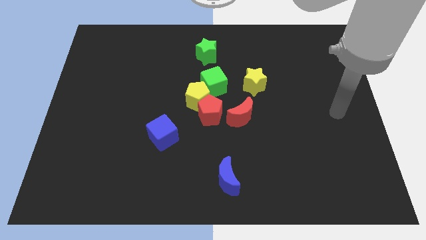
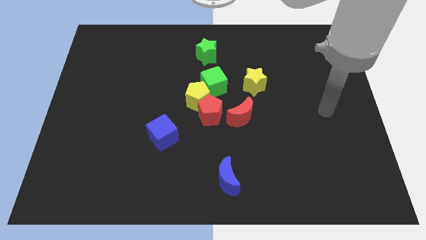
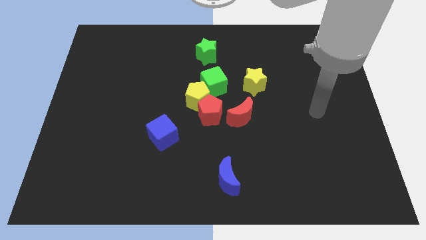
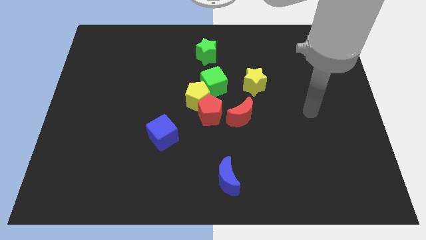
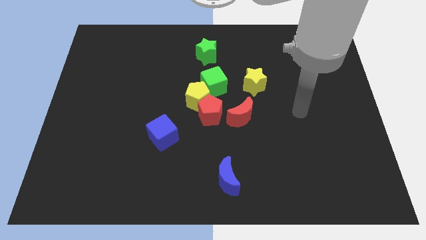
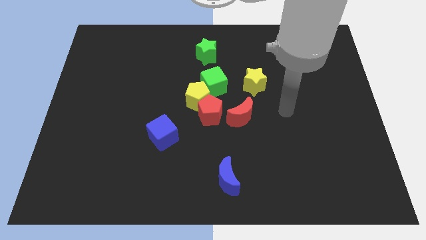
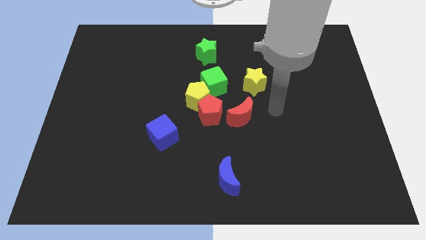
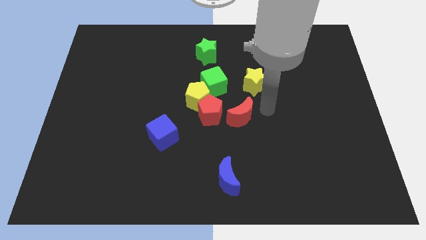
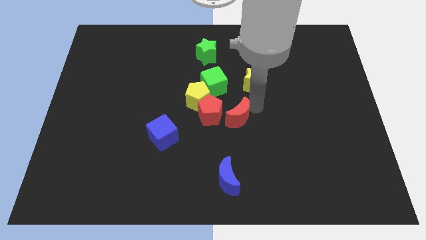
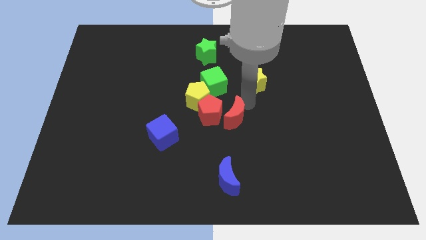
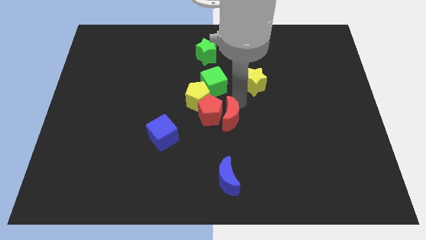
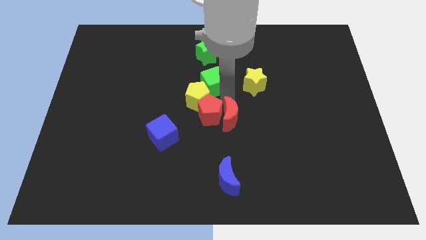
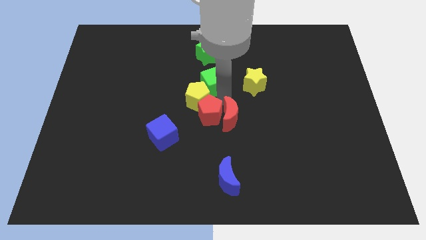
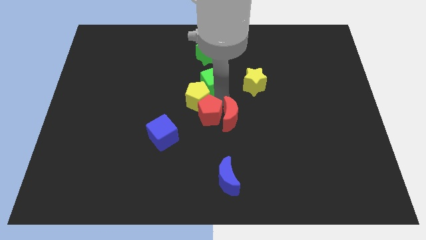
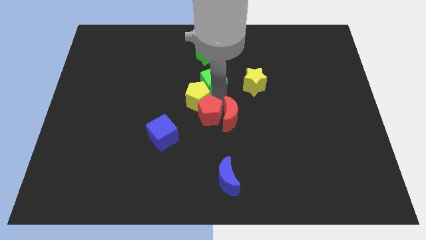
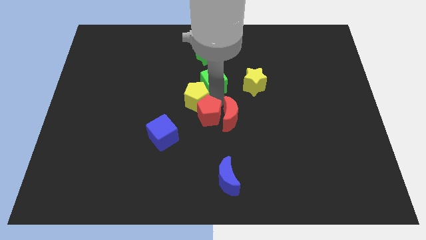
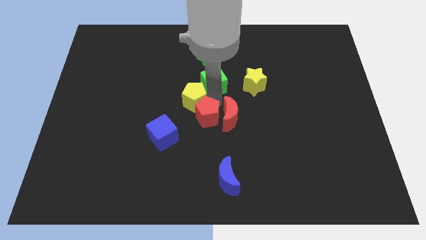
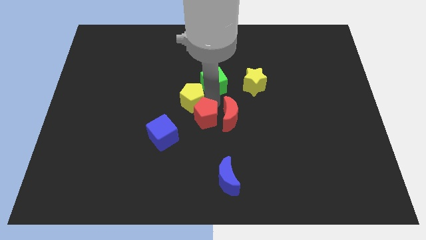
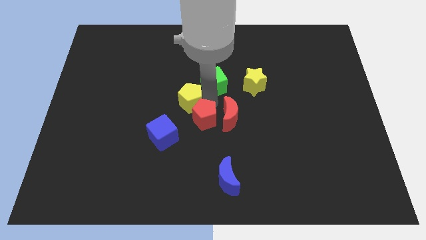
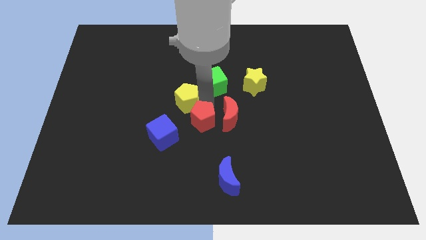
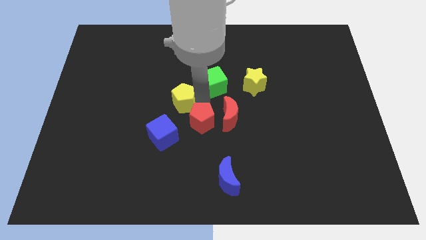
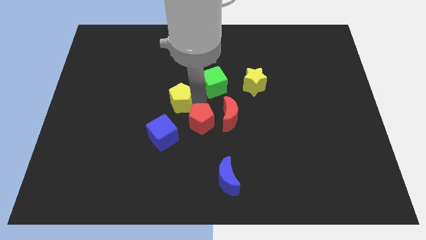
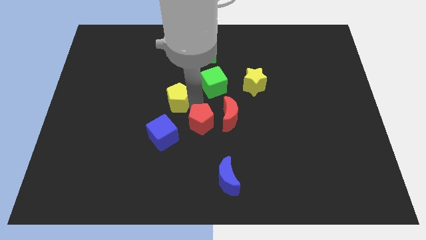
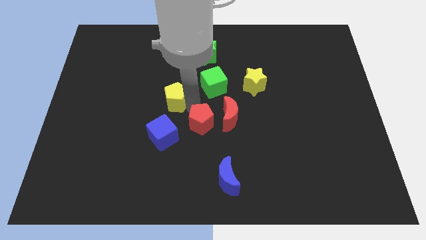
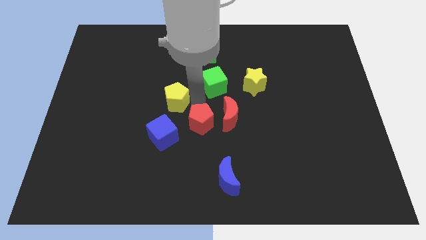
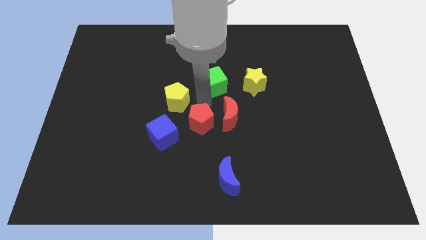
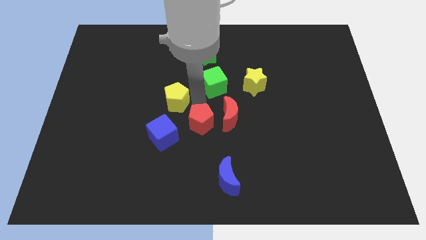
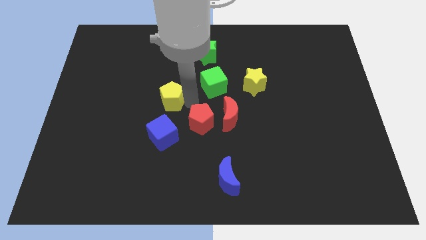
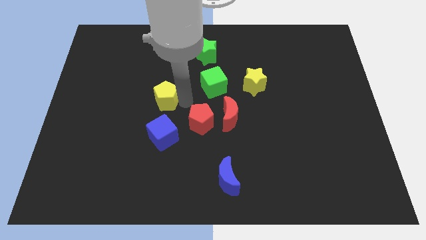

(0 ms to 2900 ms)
separate the yellow pentagon from the red pentagon and green cube

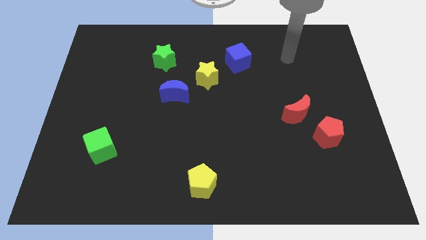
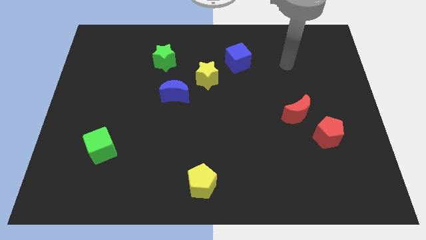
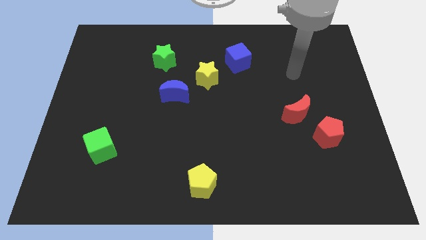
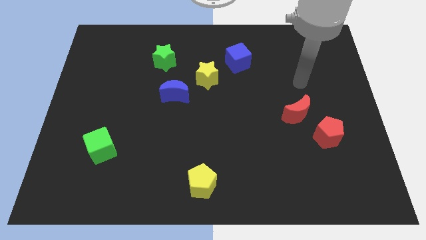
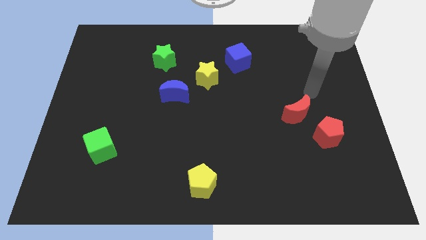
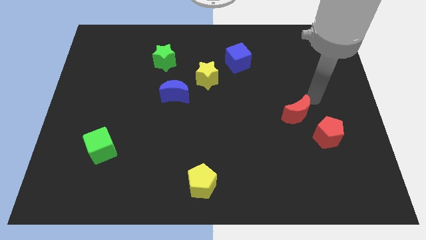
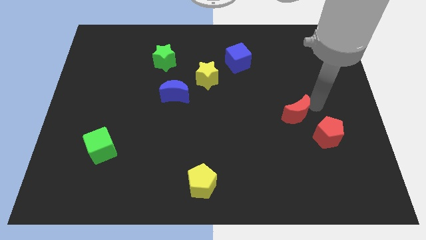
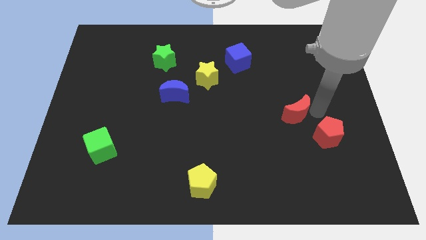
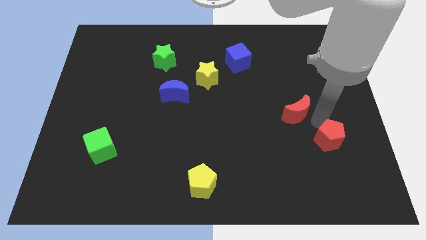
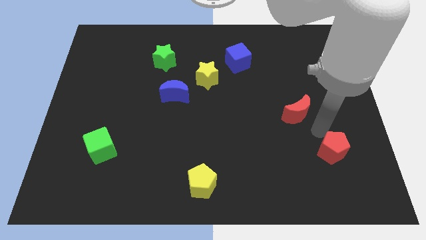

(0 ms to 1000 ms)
separate the red moon from the red pentagon

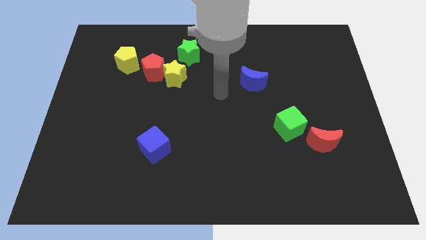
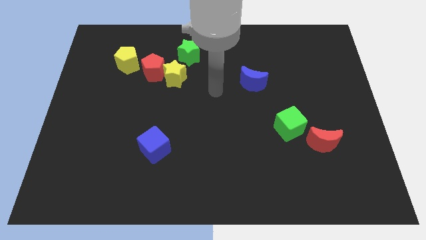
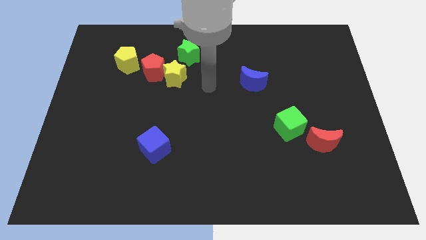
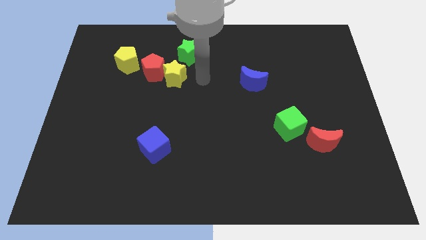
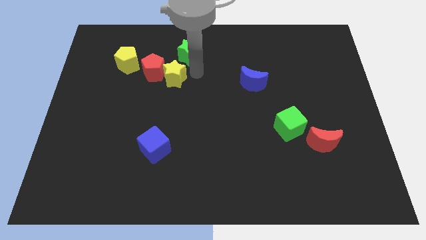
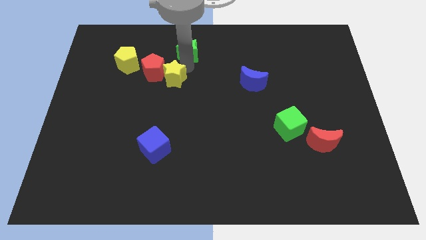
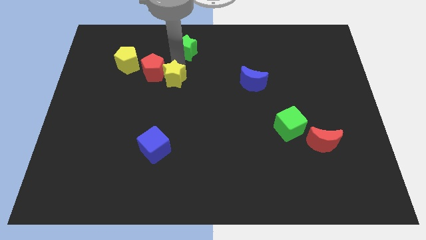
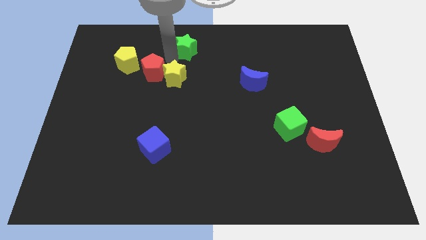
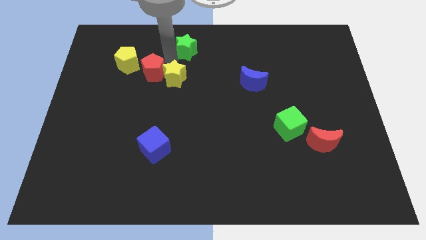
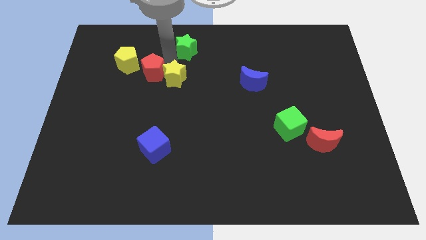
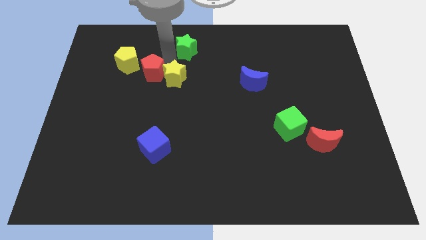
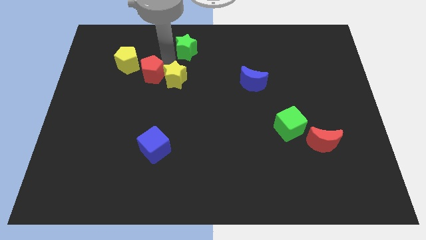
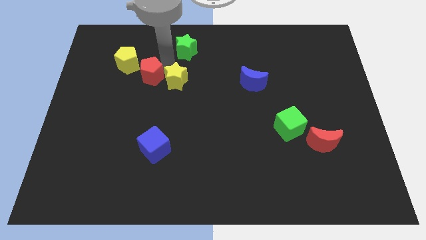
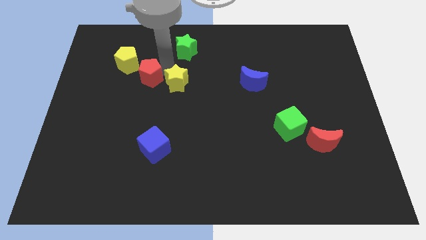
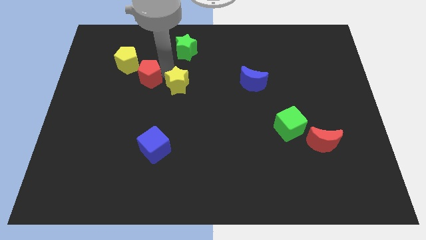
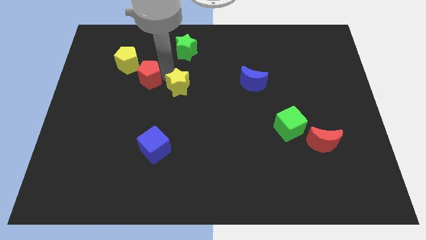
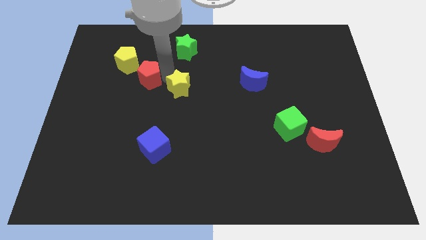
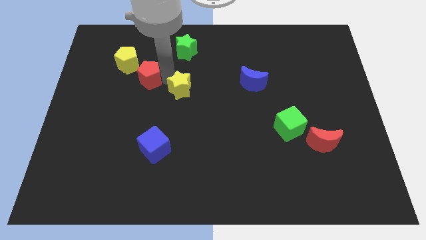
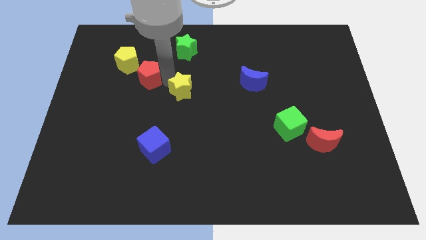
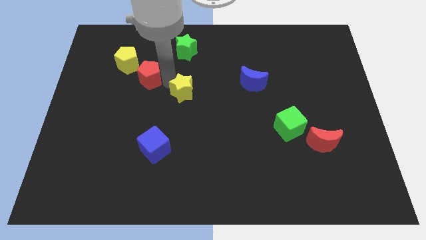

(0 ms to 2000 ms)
move the yellow star away from the red pentagon and green star

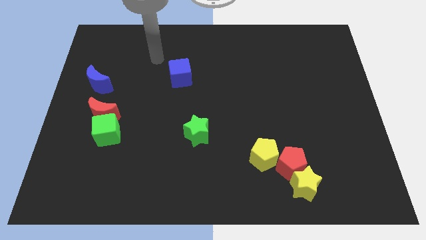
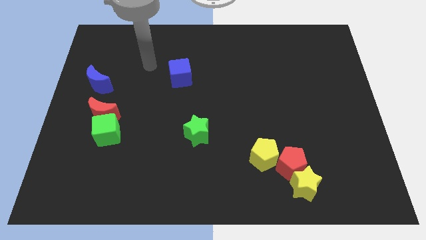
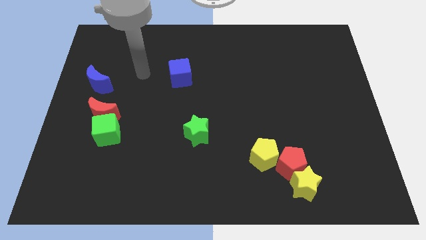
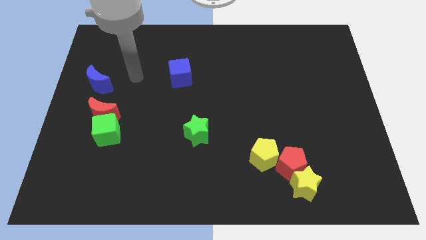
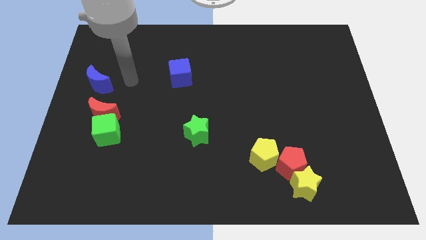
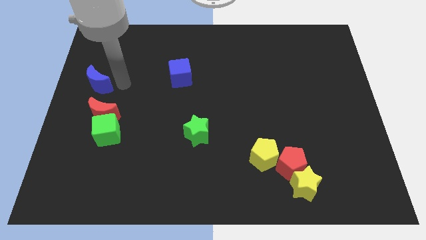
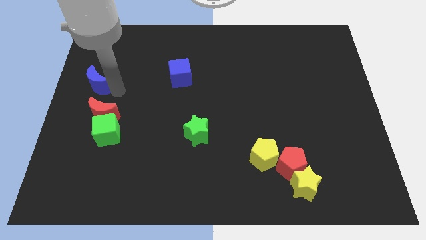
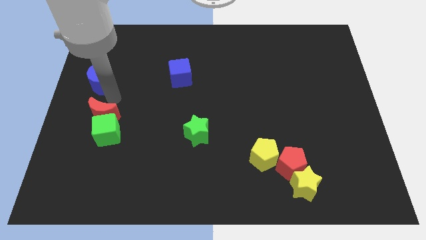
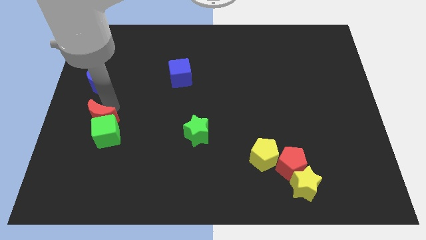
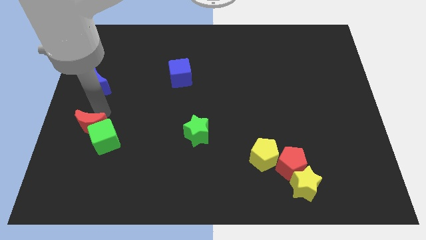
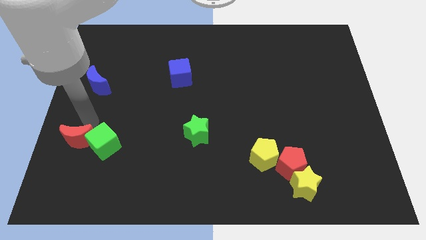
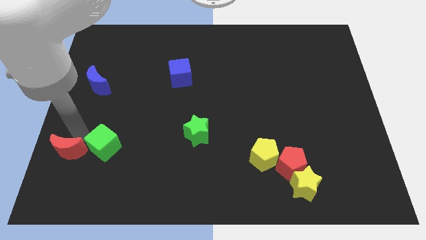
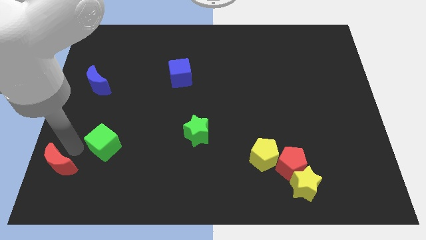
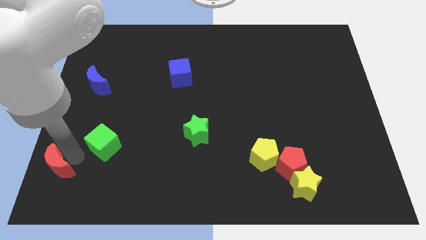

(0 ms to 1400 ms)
pull the green cube apart from the red moon

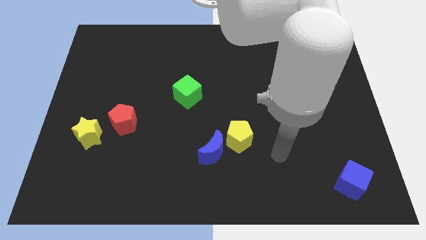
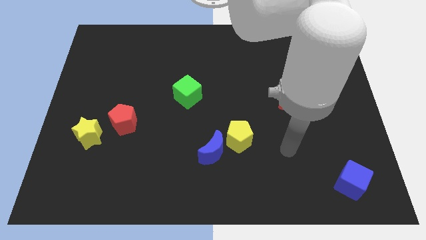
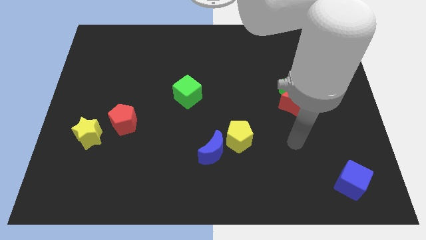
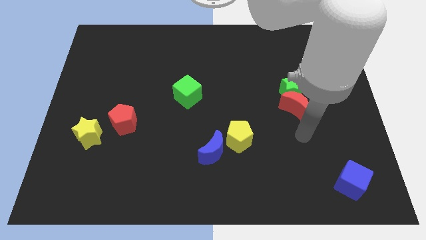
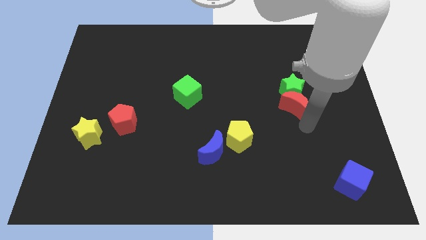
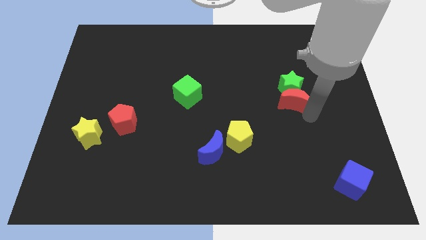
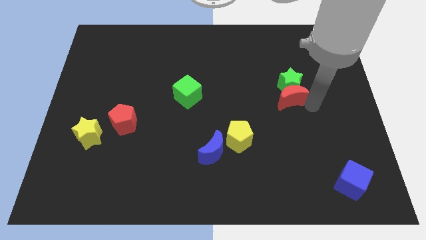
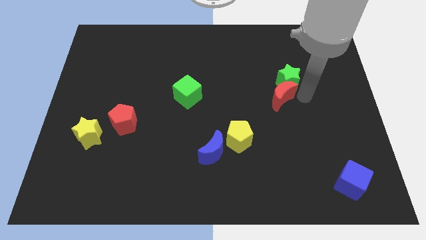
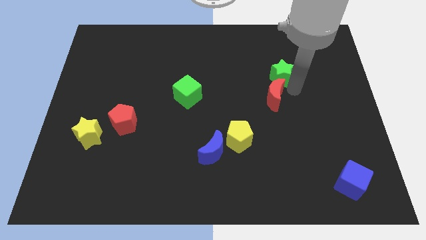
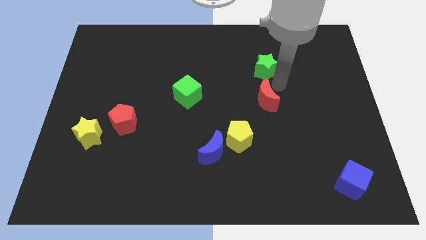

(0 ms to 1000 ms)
move the red moon away from the green star

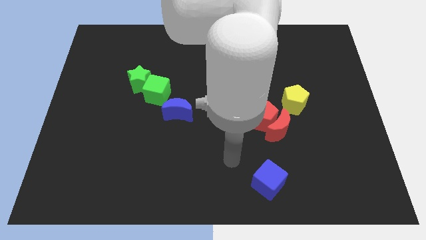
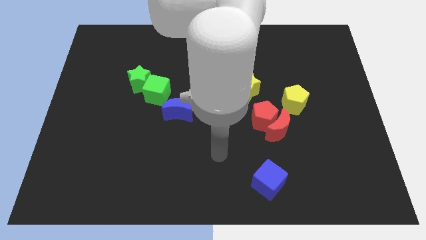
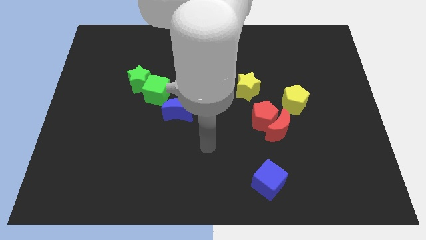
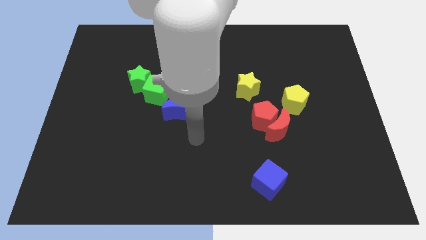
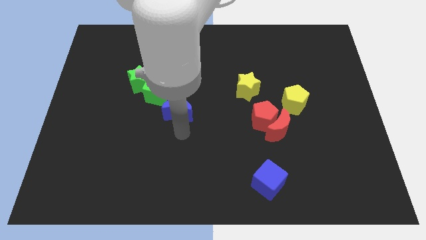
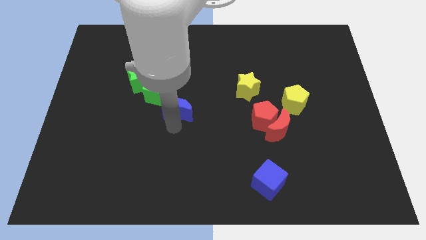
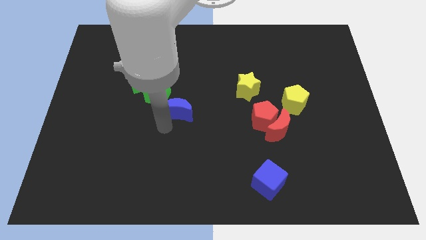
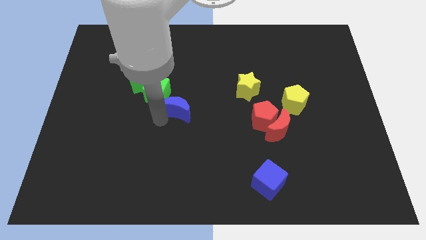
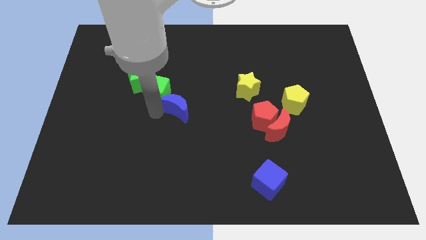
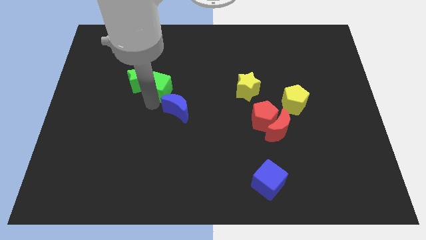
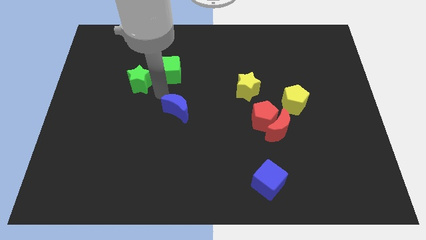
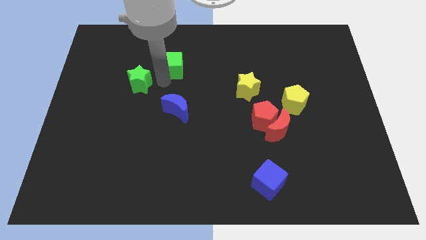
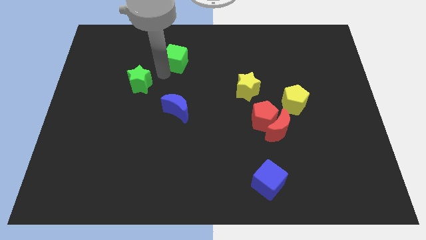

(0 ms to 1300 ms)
pull the green star apart from the green cube
